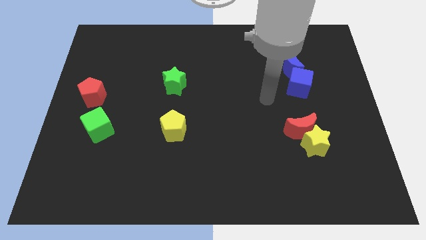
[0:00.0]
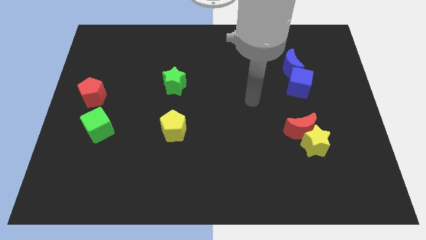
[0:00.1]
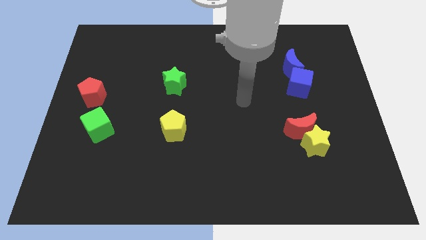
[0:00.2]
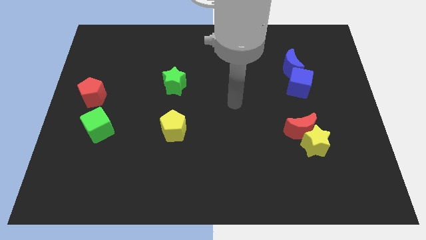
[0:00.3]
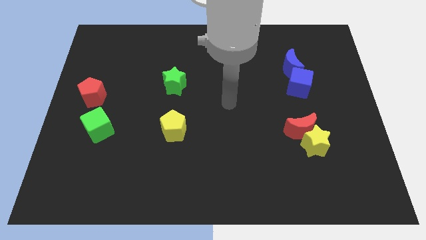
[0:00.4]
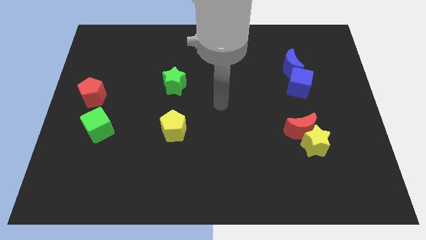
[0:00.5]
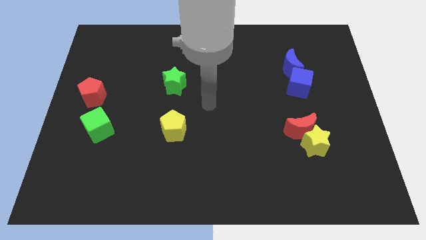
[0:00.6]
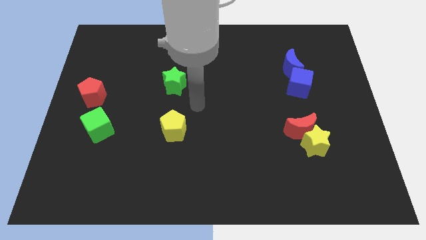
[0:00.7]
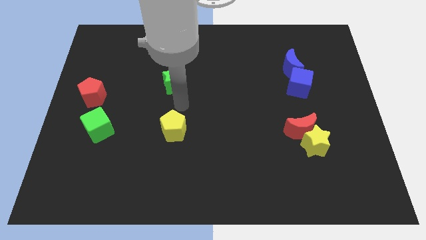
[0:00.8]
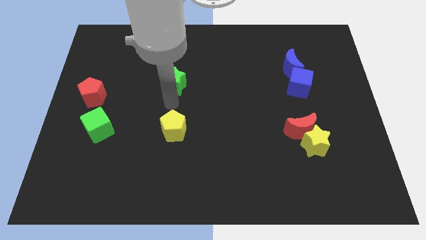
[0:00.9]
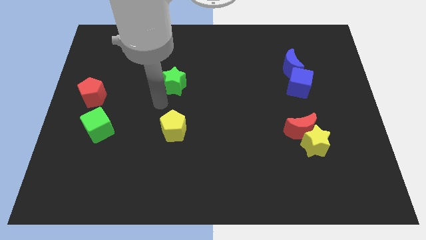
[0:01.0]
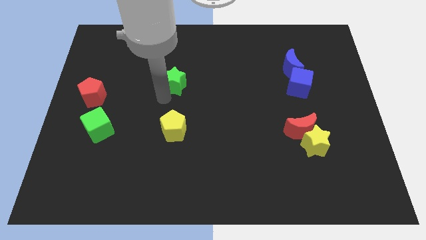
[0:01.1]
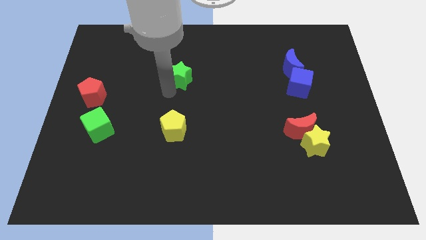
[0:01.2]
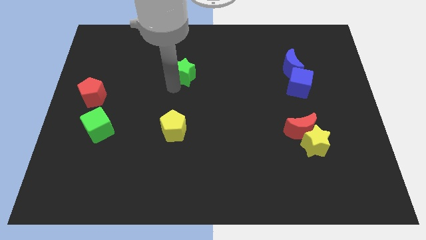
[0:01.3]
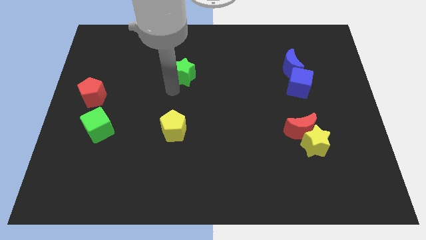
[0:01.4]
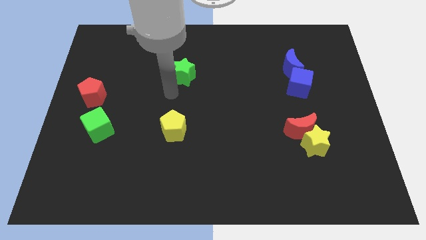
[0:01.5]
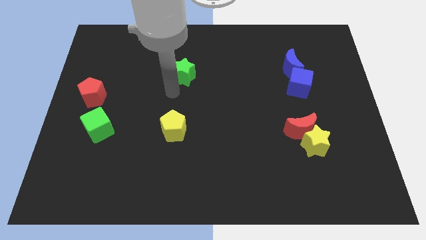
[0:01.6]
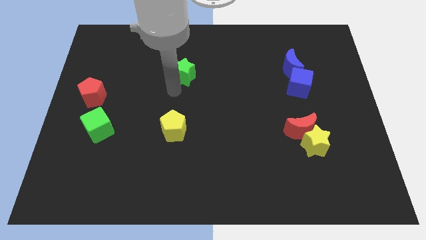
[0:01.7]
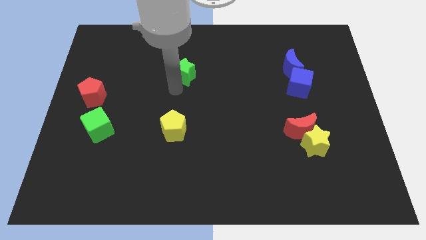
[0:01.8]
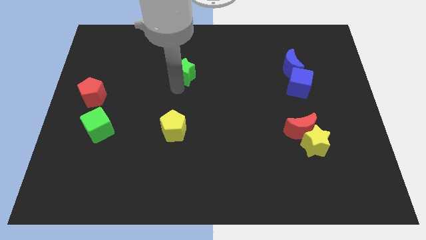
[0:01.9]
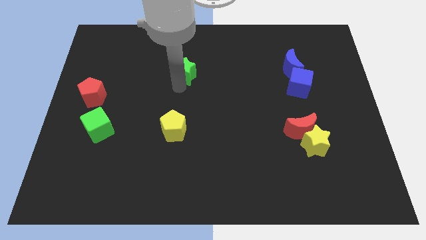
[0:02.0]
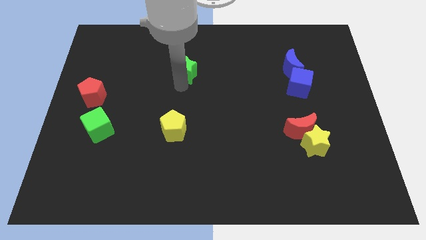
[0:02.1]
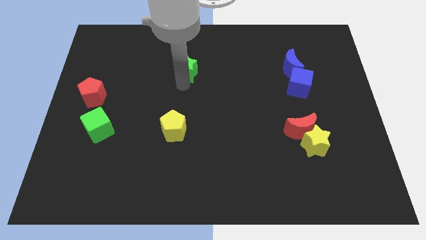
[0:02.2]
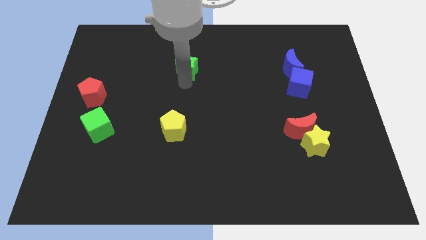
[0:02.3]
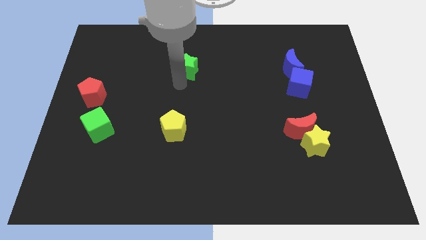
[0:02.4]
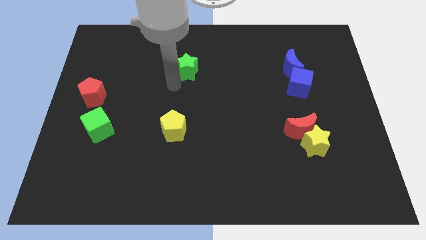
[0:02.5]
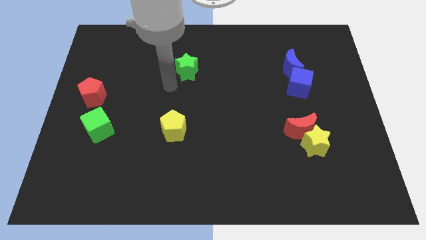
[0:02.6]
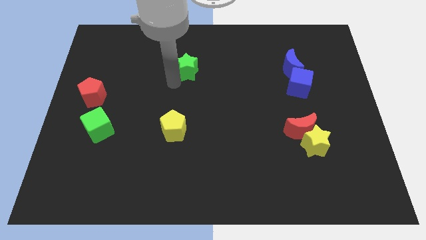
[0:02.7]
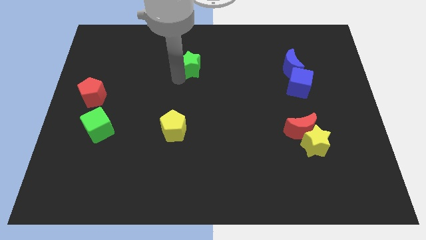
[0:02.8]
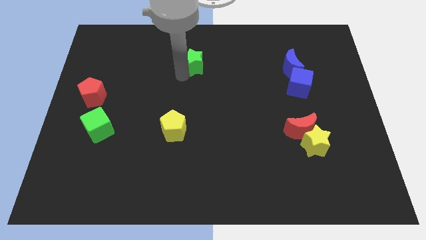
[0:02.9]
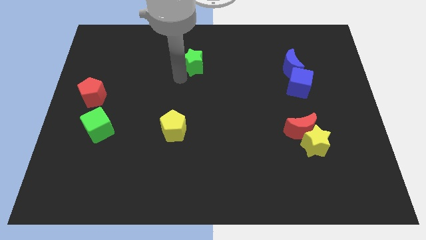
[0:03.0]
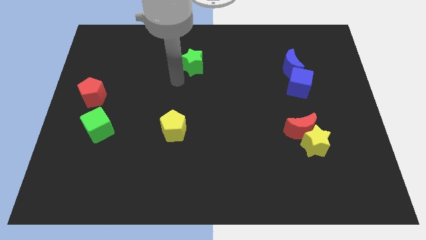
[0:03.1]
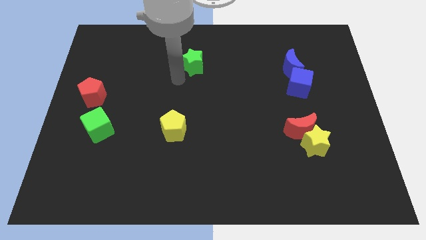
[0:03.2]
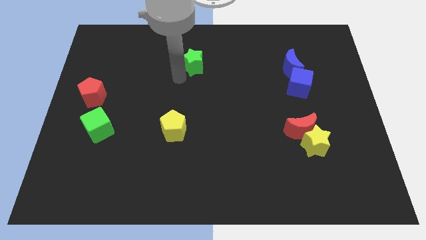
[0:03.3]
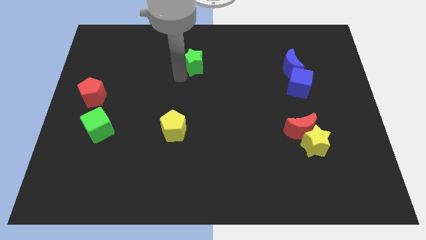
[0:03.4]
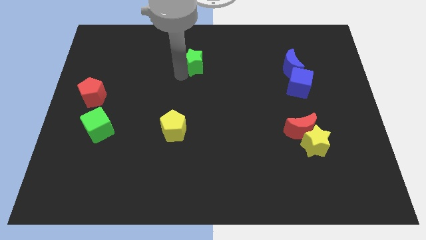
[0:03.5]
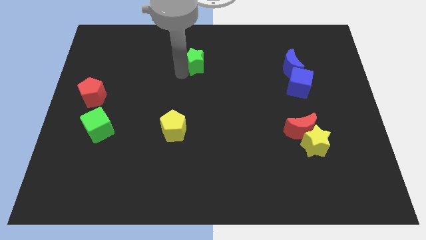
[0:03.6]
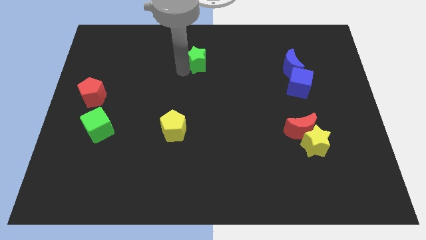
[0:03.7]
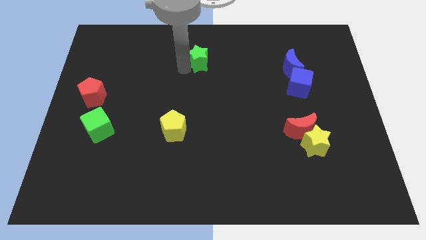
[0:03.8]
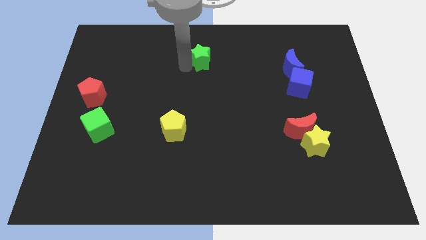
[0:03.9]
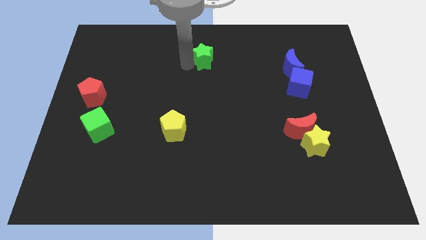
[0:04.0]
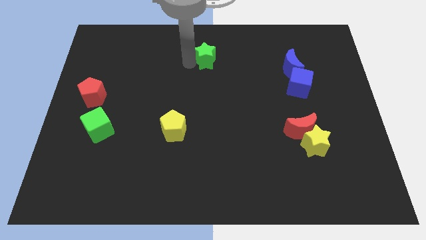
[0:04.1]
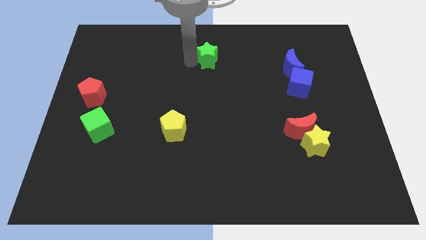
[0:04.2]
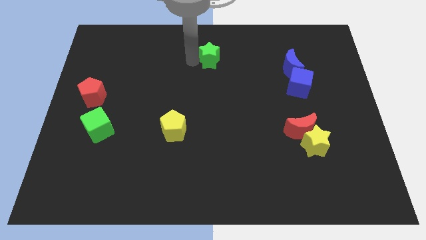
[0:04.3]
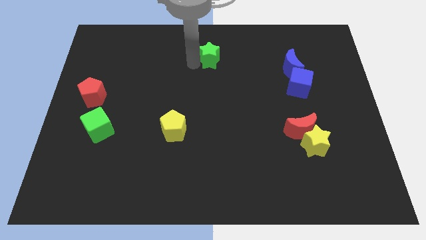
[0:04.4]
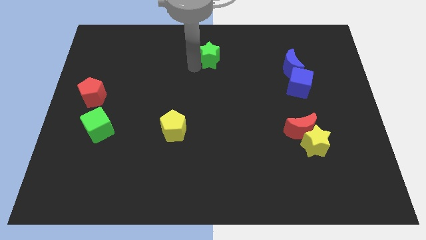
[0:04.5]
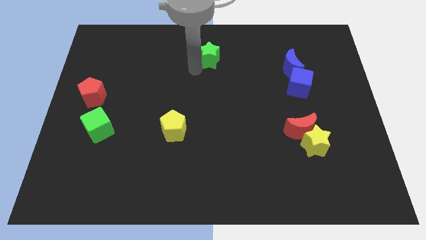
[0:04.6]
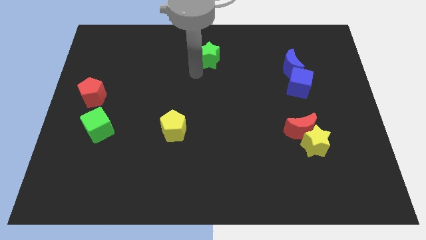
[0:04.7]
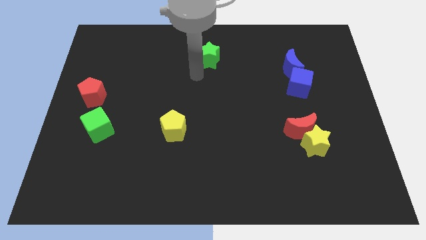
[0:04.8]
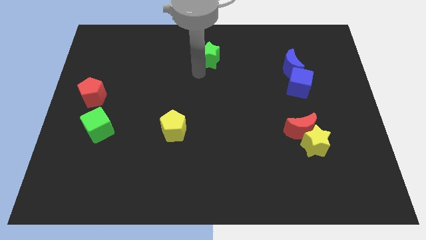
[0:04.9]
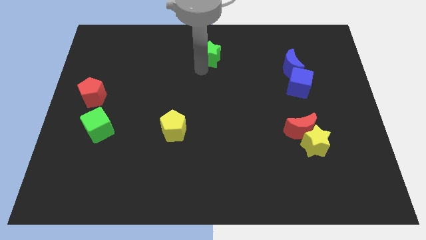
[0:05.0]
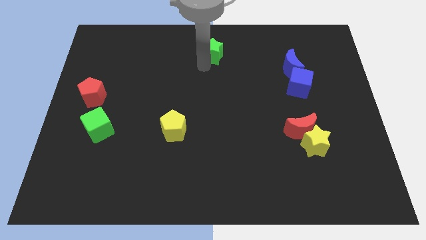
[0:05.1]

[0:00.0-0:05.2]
put the green star to the top side

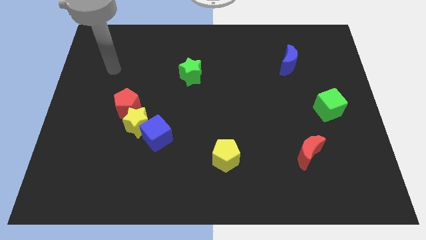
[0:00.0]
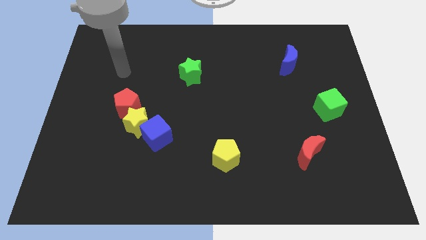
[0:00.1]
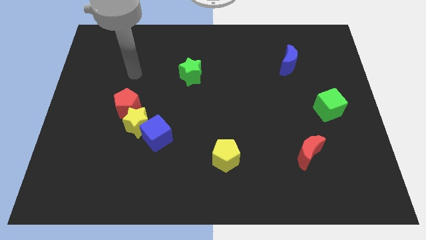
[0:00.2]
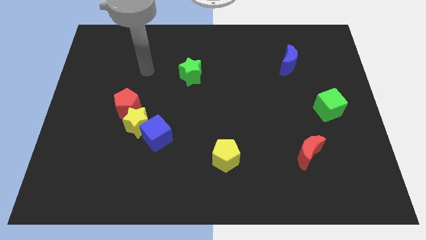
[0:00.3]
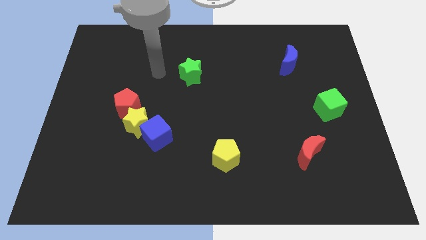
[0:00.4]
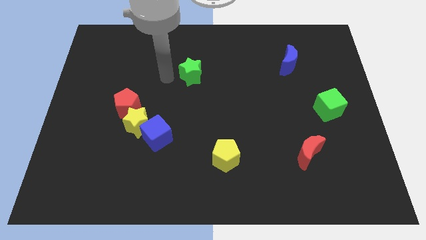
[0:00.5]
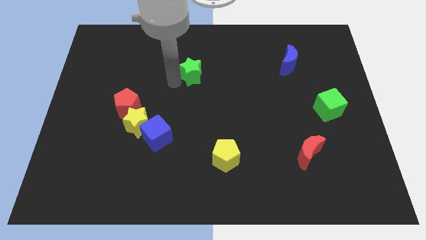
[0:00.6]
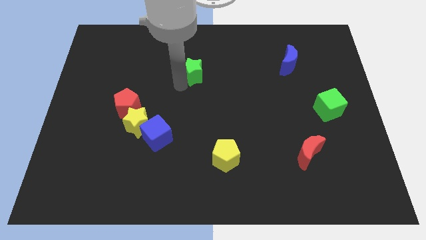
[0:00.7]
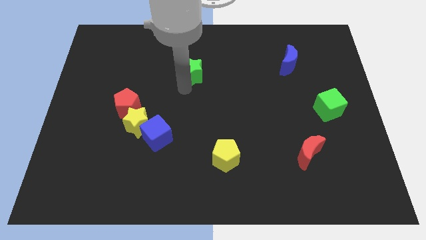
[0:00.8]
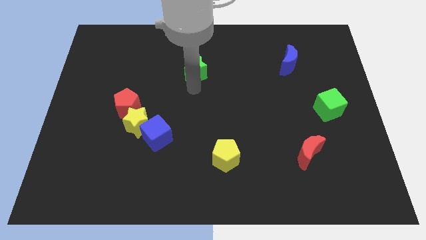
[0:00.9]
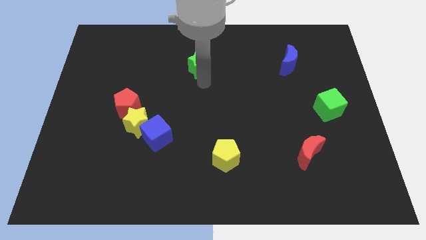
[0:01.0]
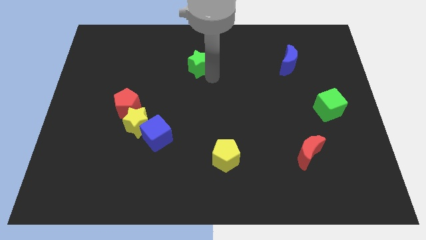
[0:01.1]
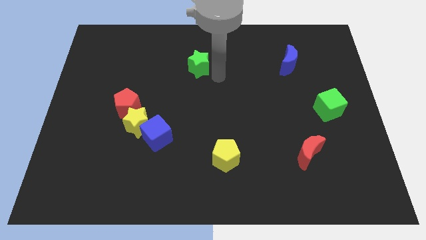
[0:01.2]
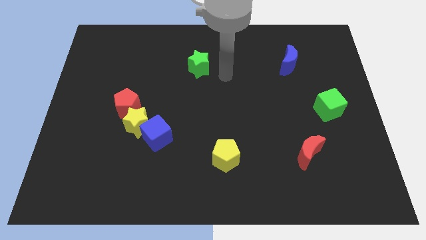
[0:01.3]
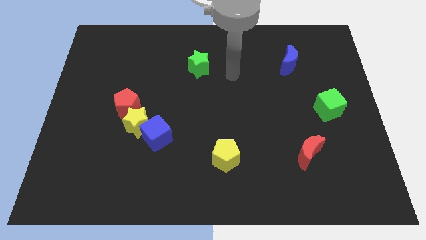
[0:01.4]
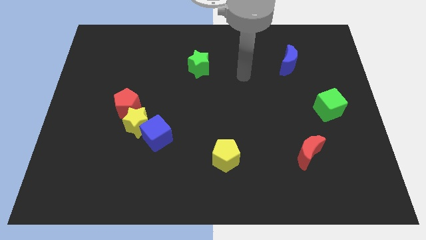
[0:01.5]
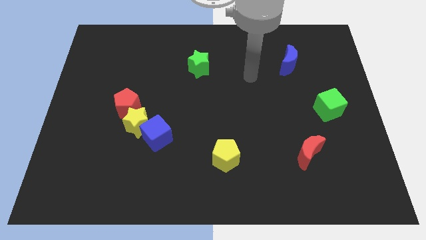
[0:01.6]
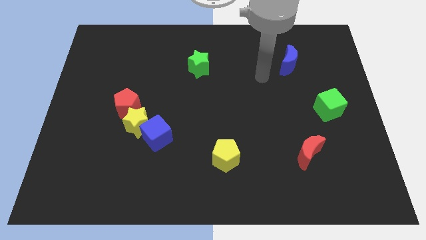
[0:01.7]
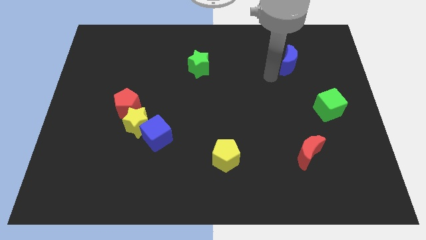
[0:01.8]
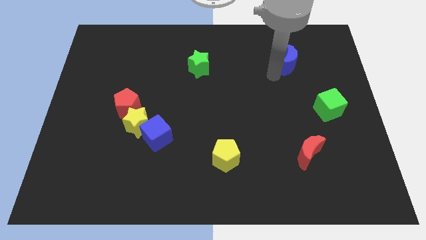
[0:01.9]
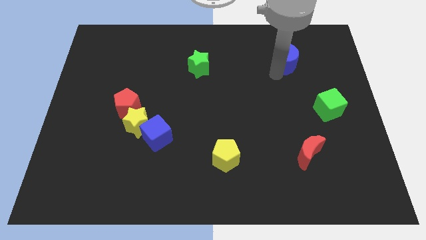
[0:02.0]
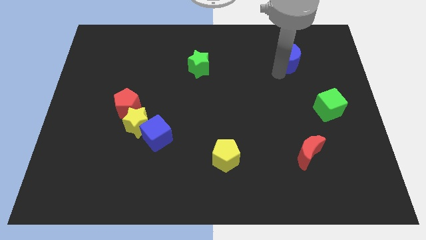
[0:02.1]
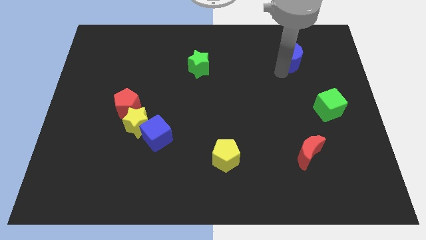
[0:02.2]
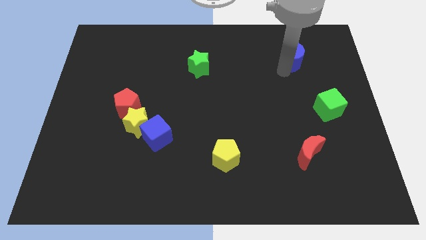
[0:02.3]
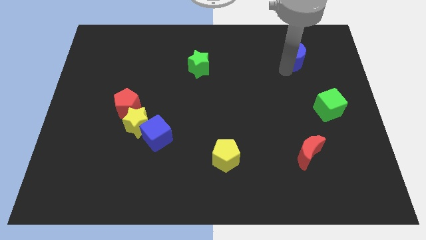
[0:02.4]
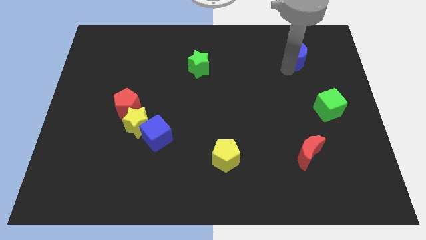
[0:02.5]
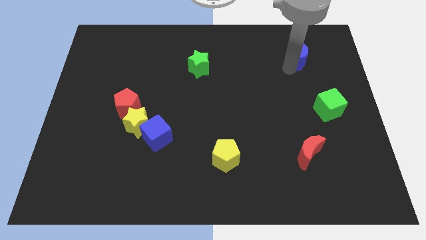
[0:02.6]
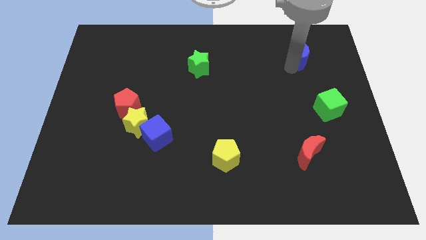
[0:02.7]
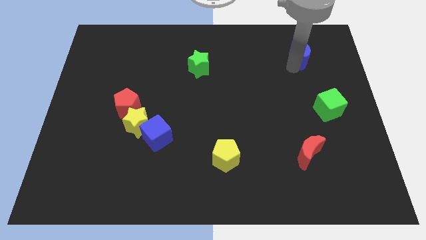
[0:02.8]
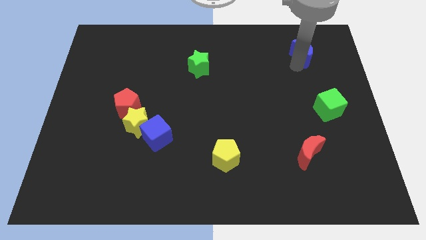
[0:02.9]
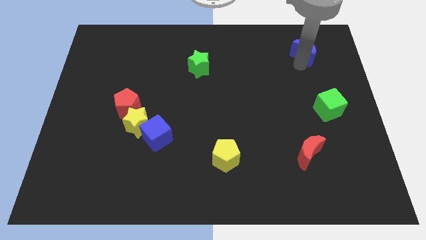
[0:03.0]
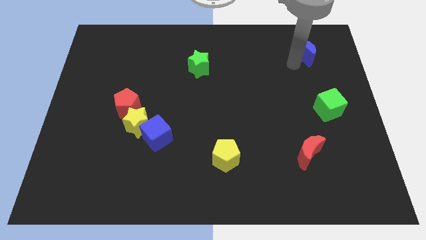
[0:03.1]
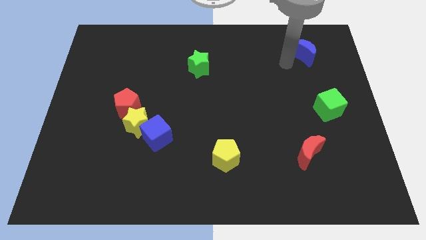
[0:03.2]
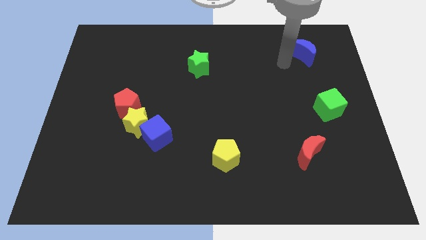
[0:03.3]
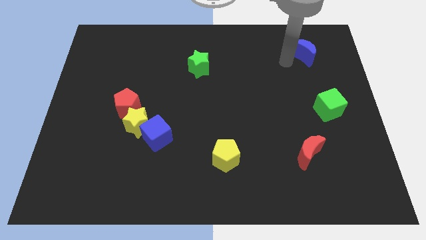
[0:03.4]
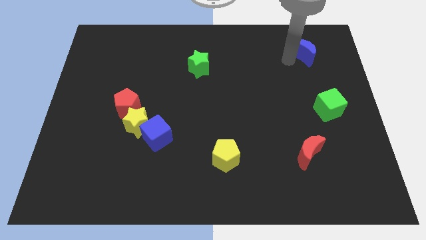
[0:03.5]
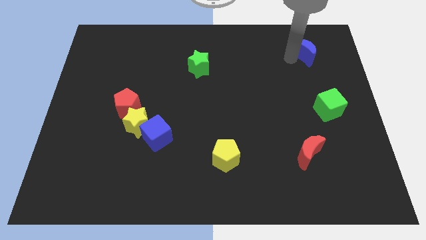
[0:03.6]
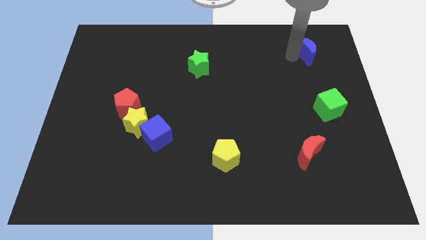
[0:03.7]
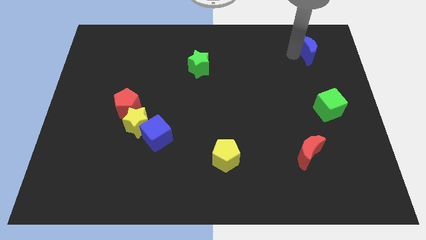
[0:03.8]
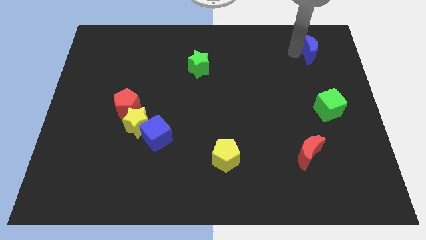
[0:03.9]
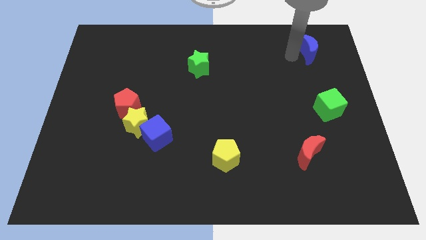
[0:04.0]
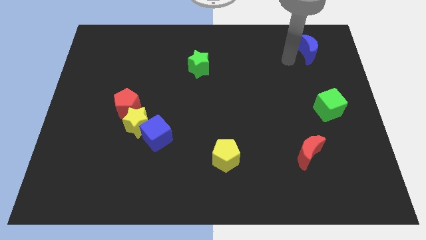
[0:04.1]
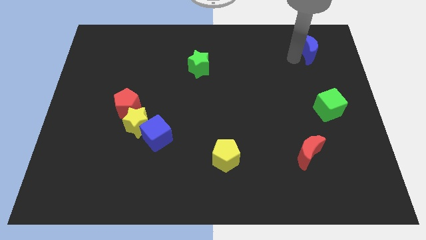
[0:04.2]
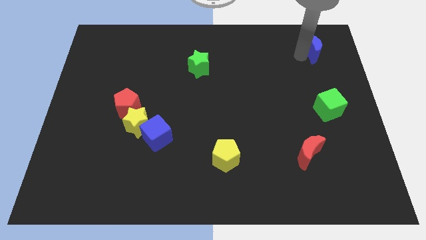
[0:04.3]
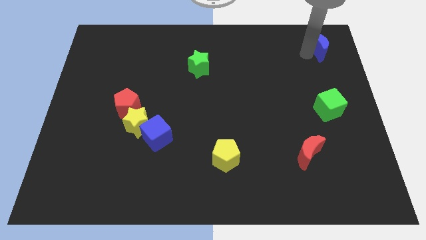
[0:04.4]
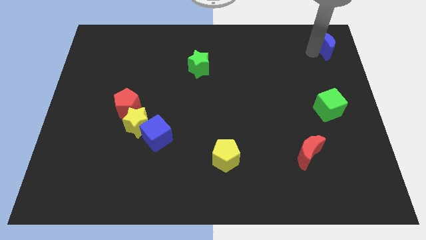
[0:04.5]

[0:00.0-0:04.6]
move the blue moon to the top right of the board
